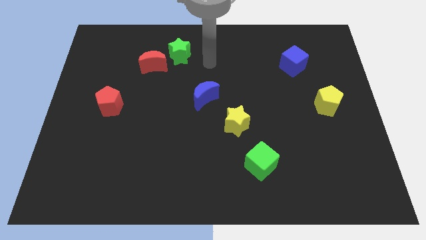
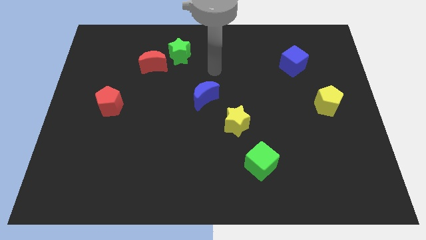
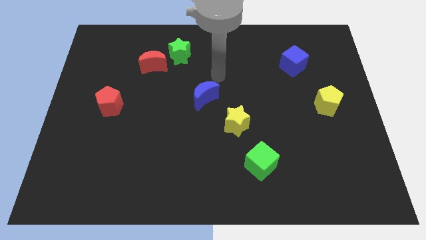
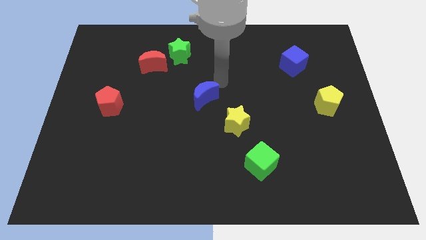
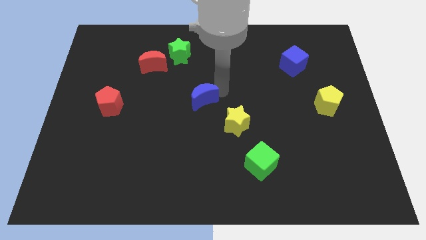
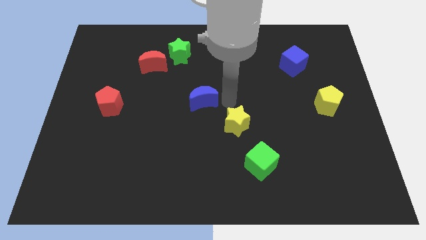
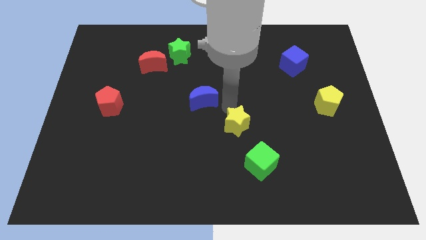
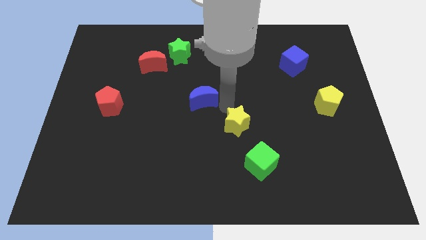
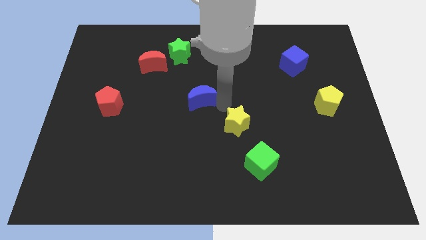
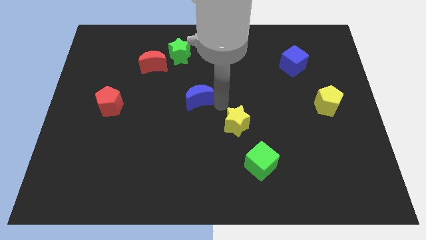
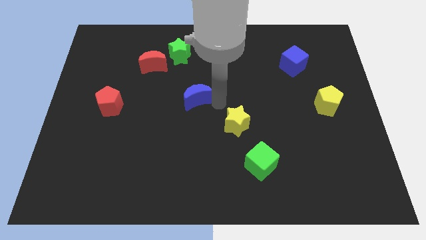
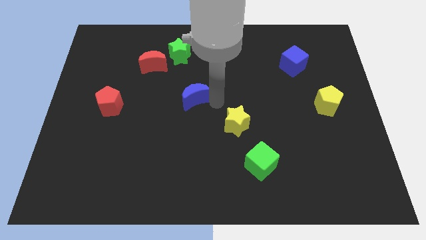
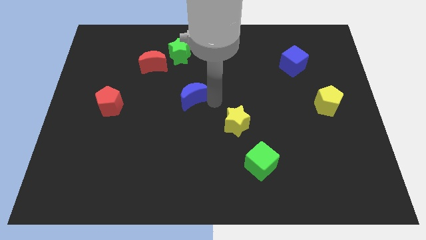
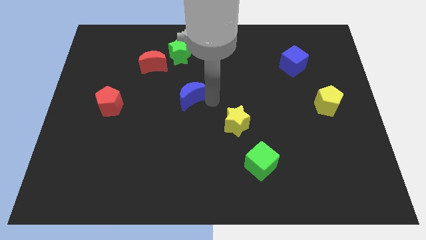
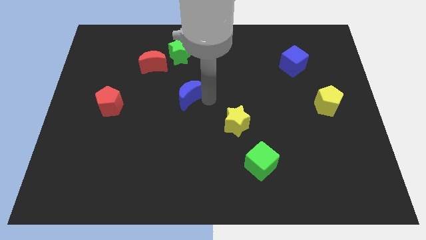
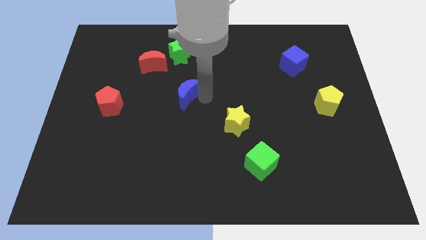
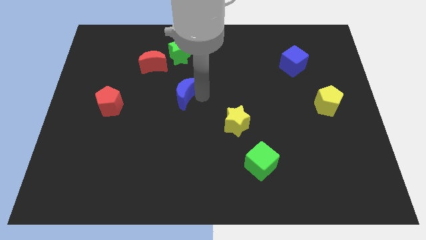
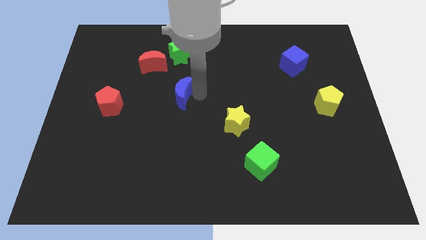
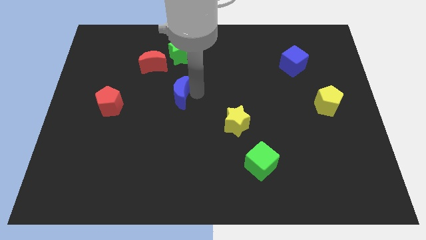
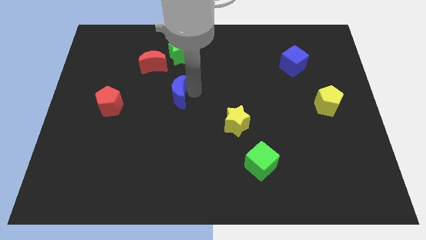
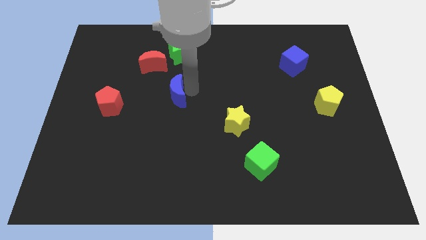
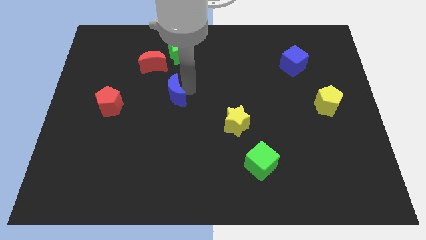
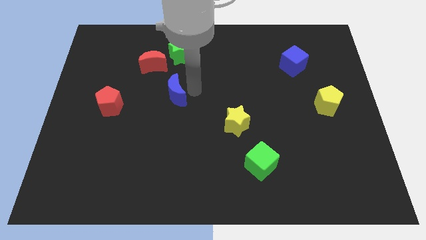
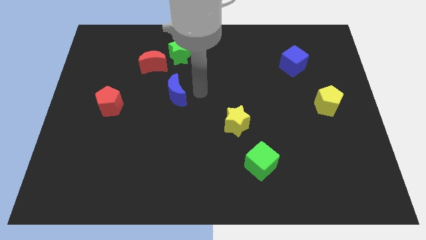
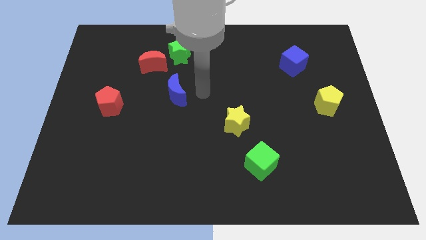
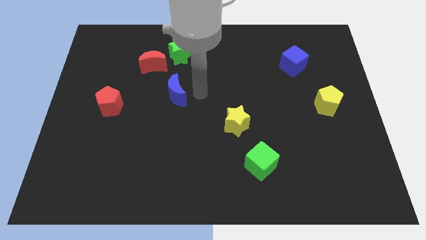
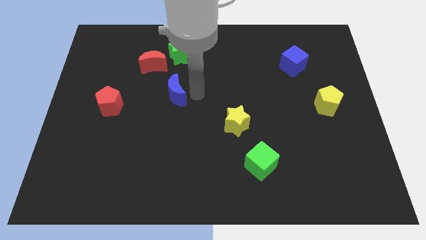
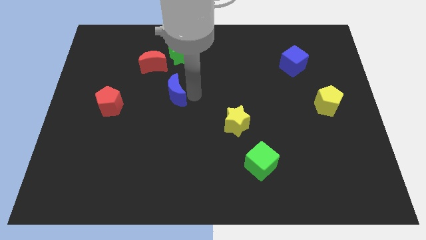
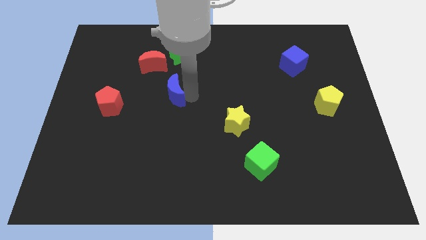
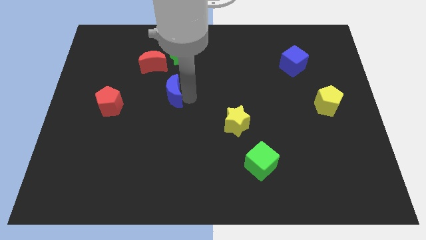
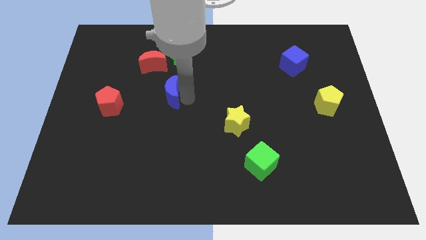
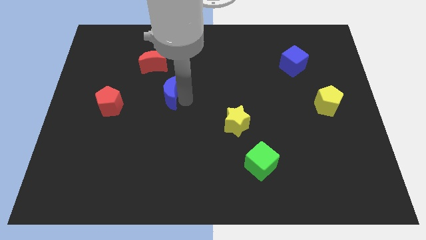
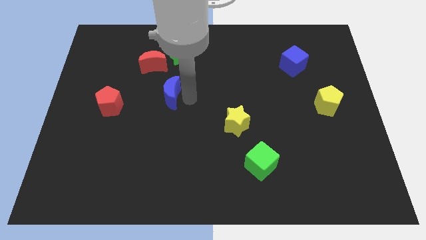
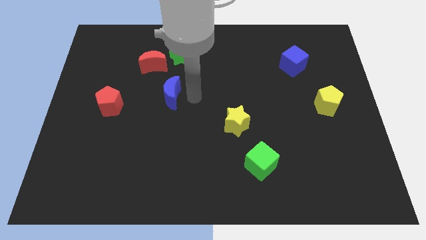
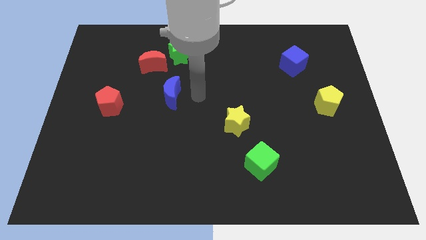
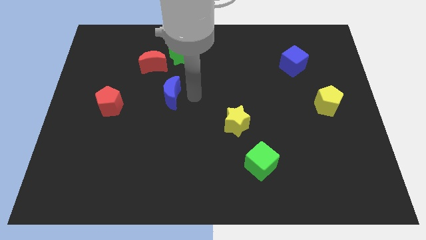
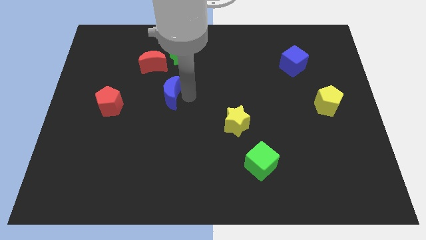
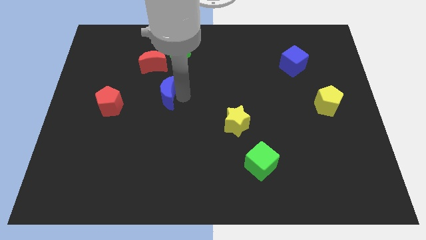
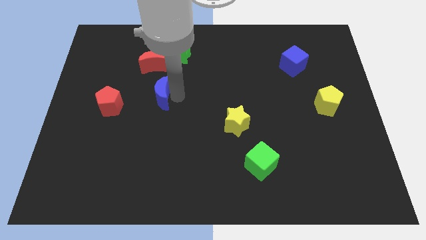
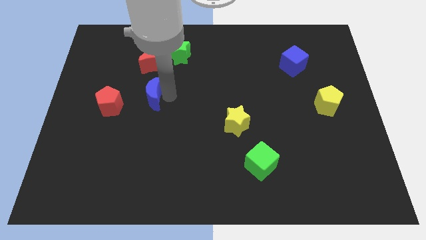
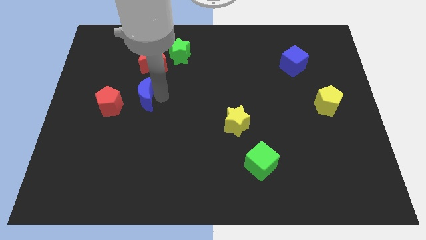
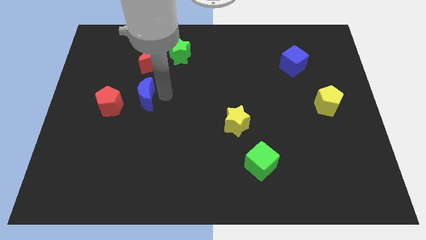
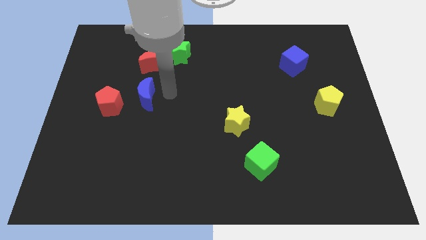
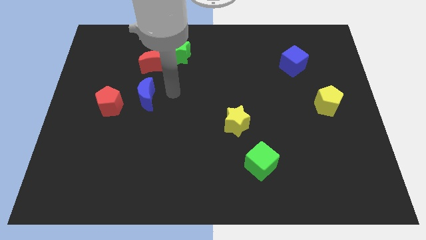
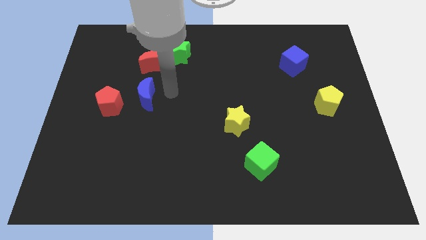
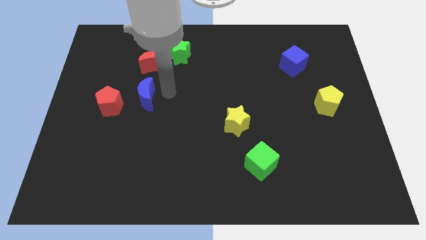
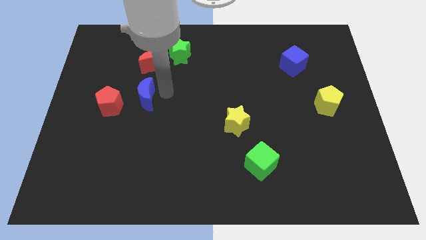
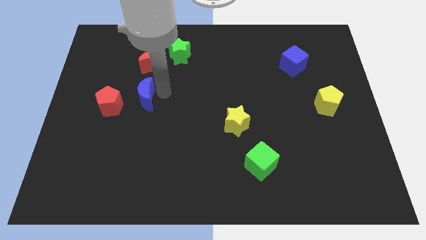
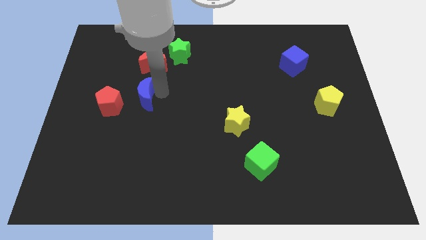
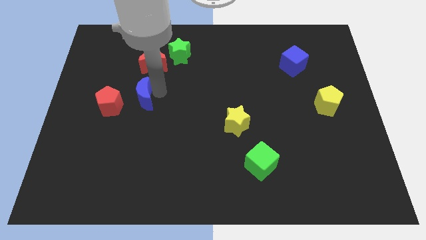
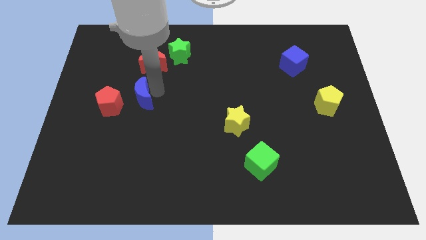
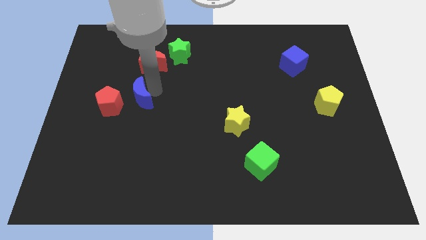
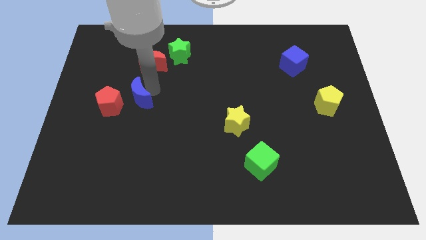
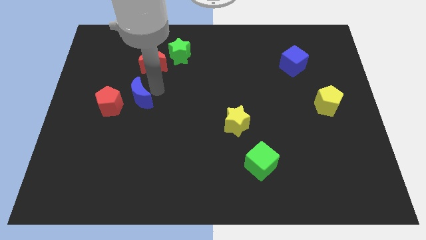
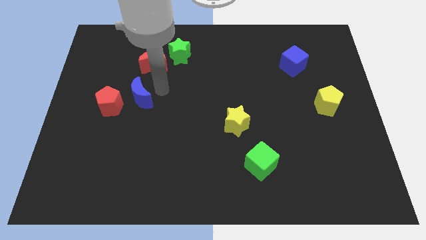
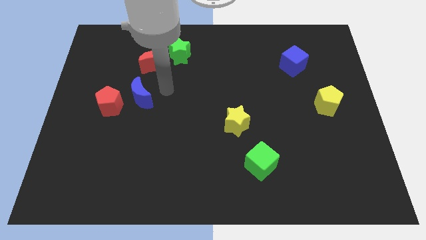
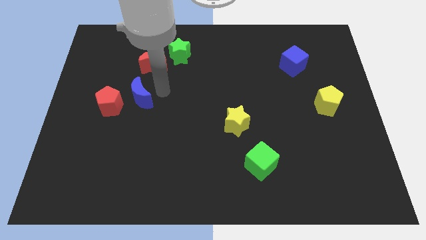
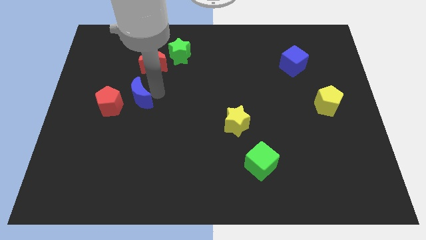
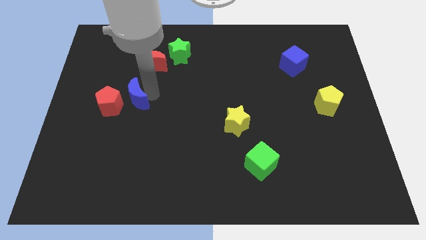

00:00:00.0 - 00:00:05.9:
push the blue moon to the red pentagon

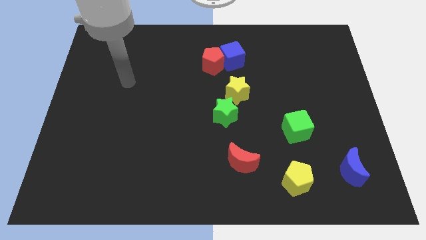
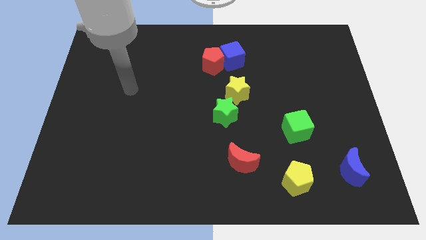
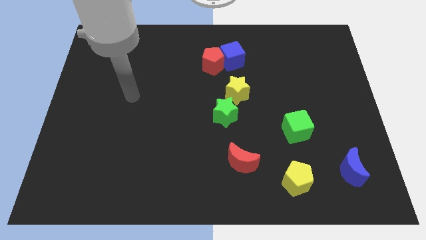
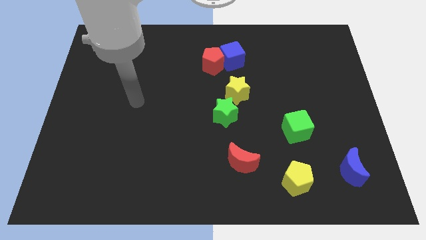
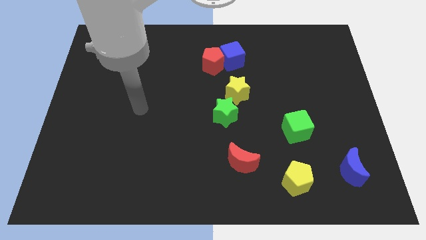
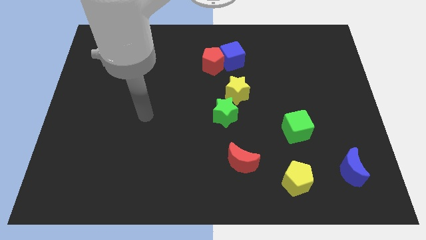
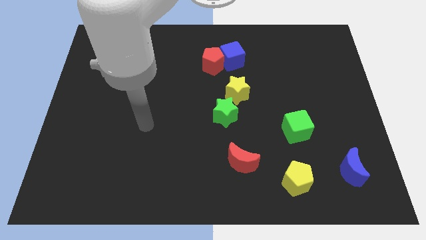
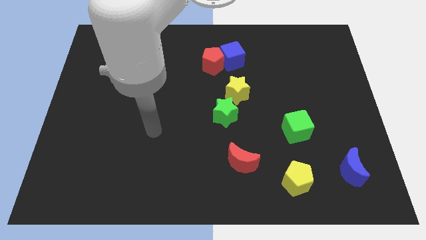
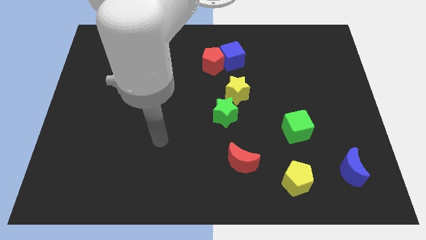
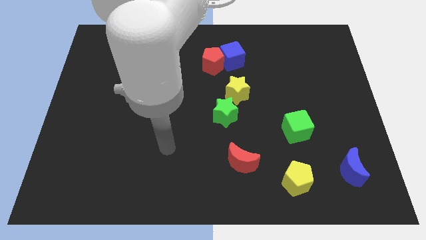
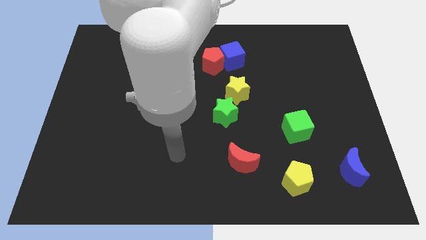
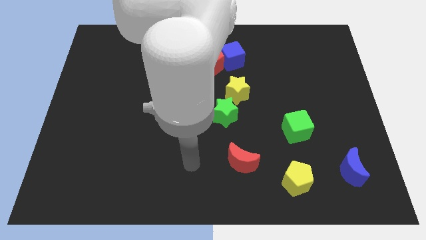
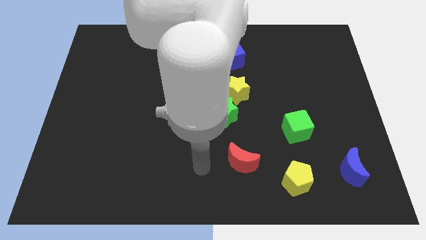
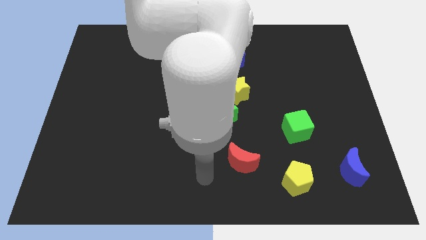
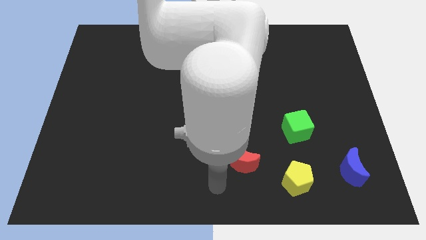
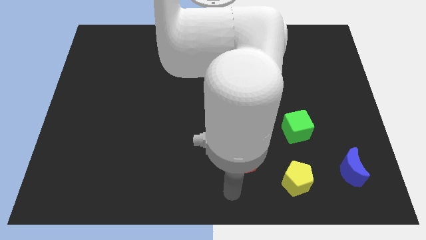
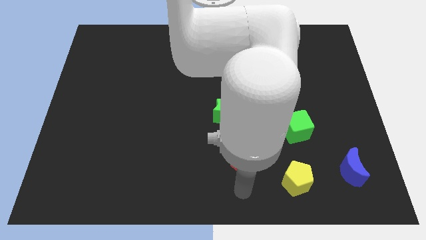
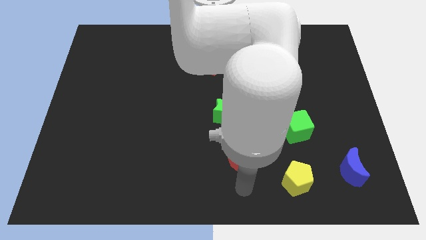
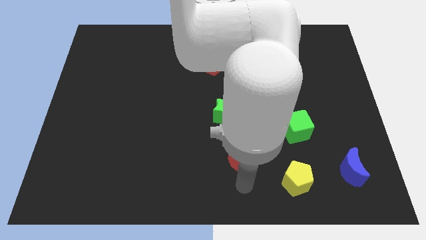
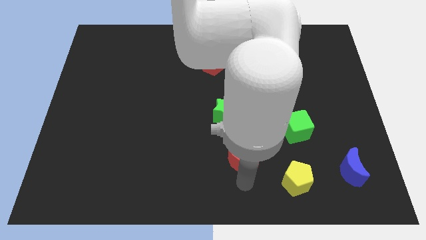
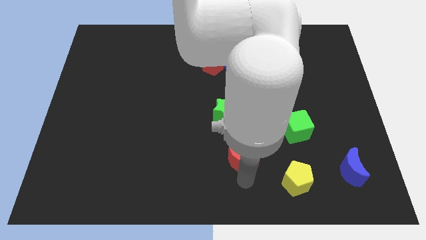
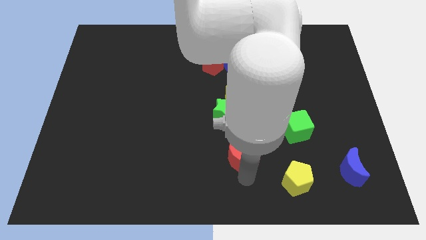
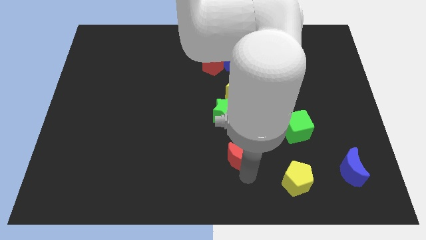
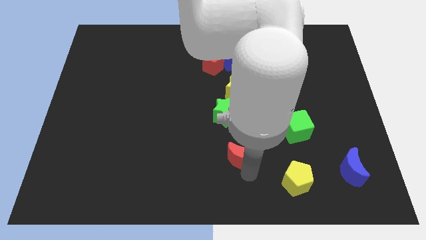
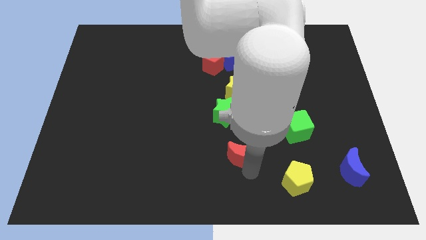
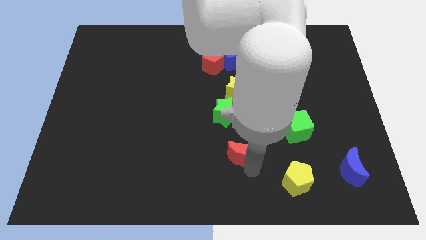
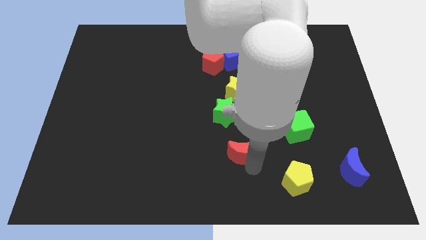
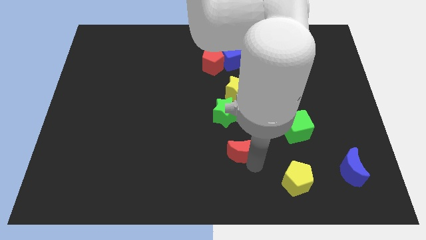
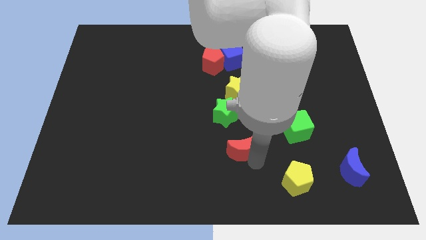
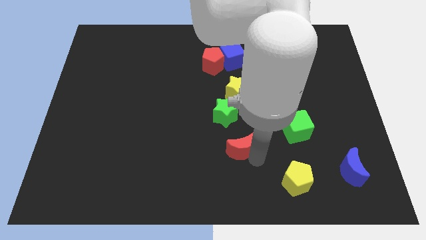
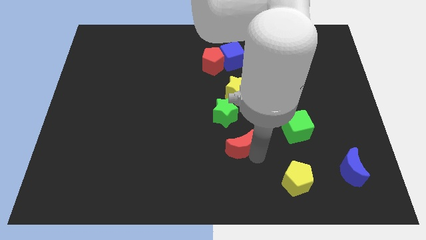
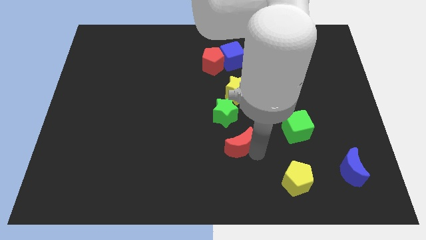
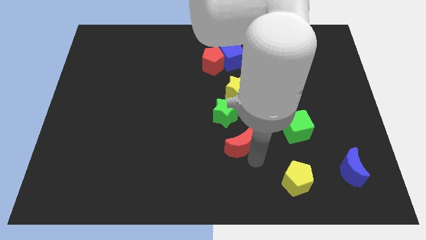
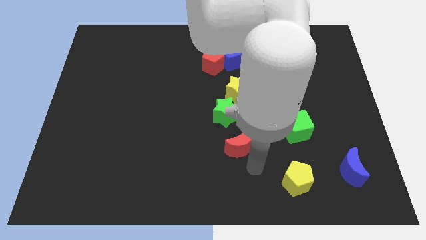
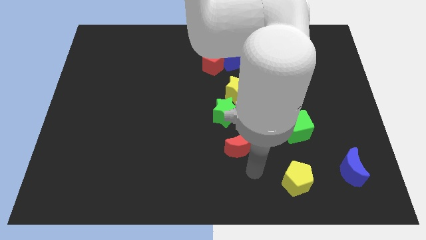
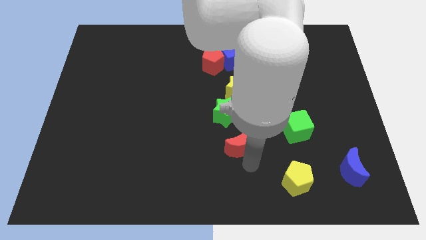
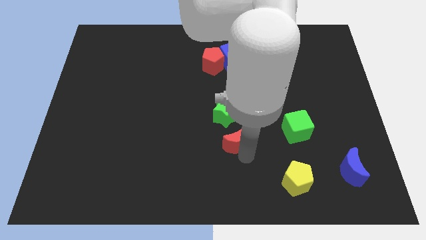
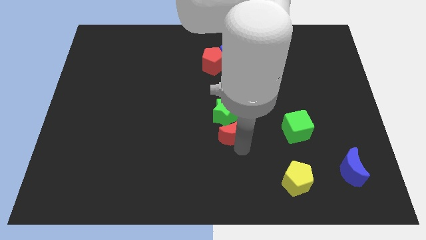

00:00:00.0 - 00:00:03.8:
put the red moon towards the green star
